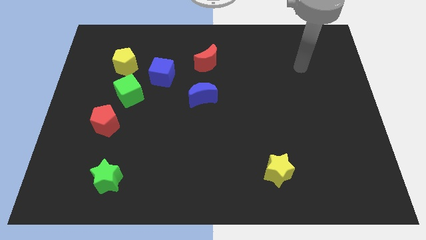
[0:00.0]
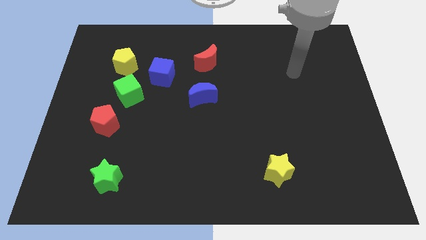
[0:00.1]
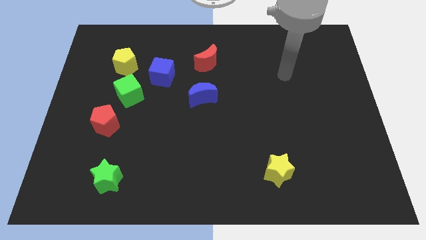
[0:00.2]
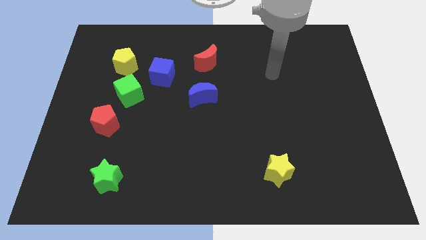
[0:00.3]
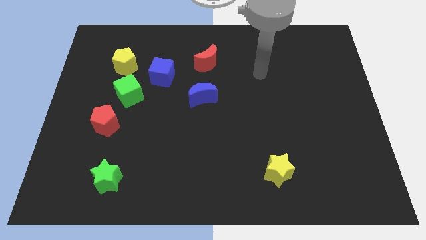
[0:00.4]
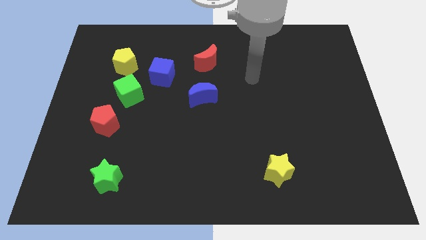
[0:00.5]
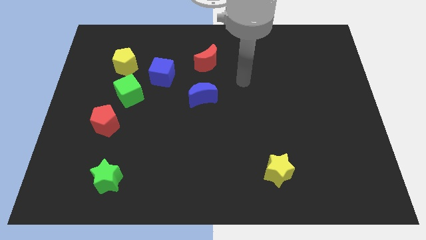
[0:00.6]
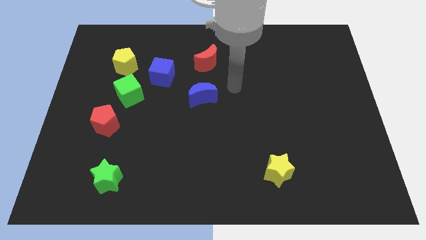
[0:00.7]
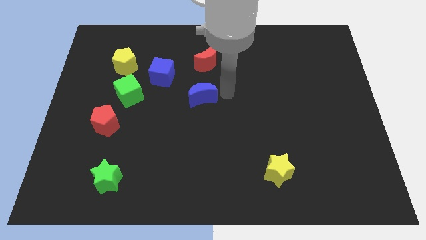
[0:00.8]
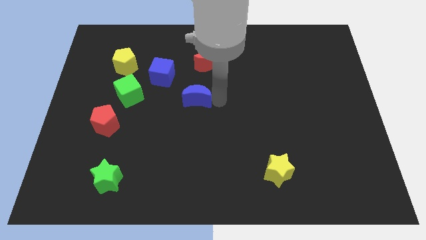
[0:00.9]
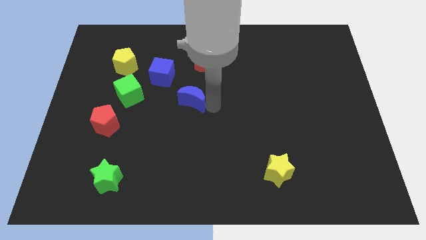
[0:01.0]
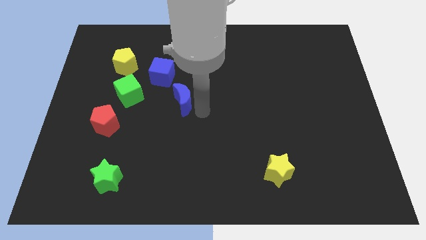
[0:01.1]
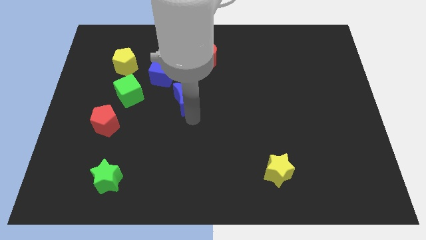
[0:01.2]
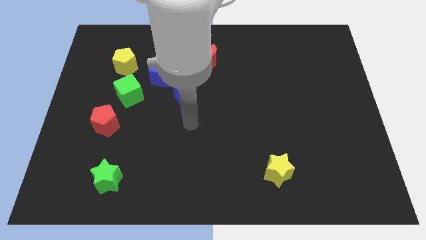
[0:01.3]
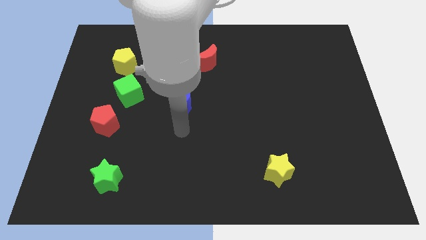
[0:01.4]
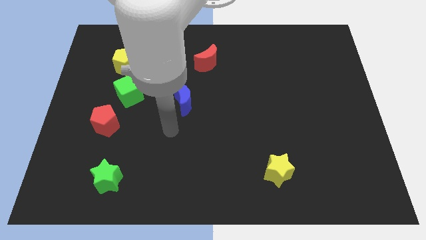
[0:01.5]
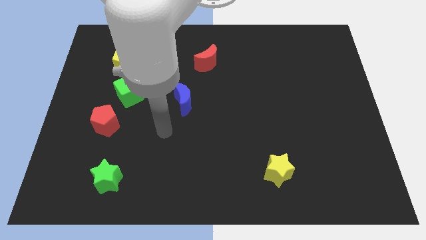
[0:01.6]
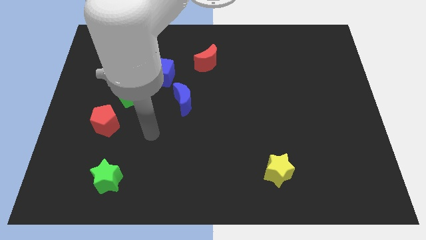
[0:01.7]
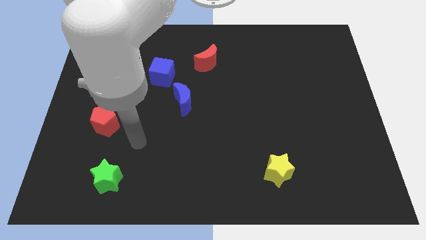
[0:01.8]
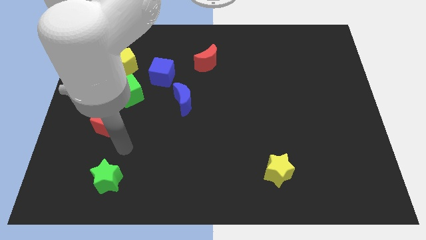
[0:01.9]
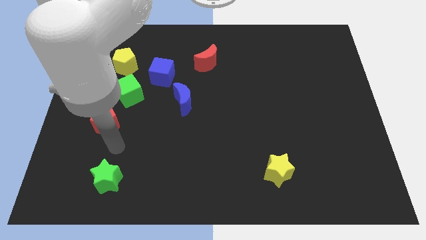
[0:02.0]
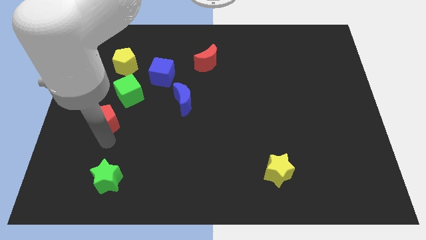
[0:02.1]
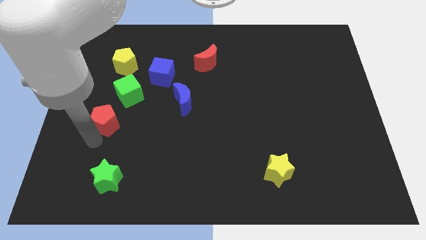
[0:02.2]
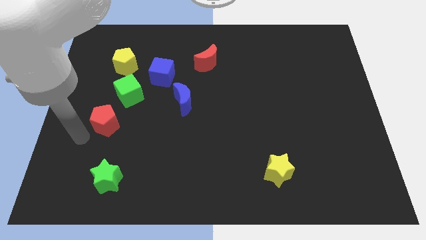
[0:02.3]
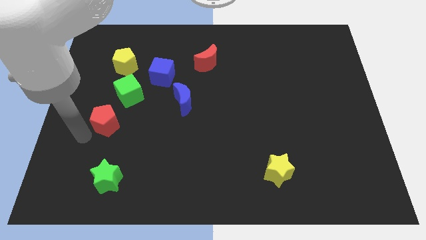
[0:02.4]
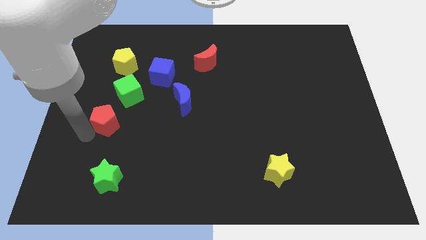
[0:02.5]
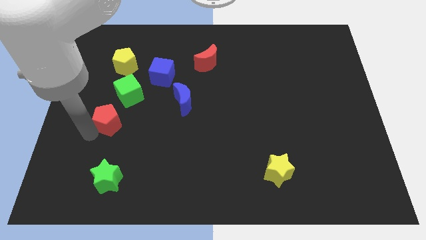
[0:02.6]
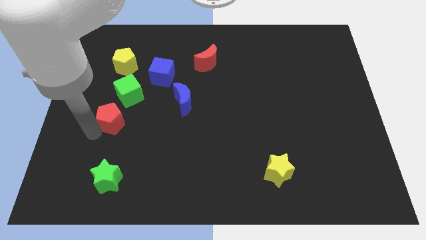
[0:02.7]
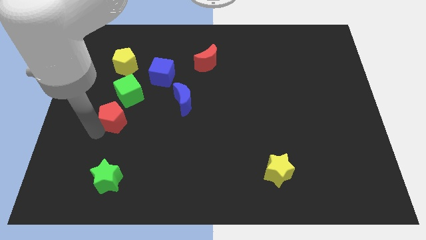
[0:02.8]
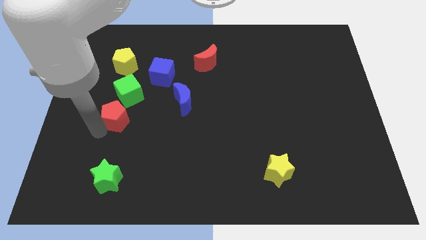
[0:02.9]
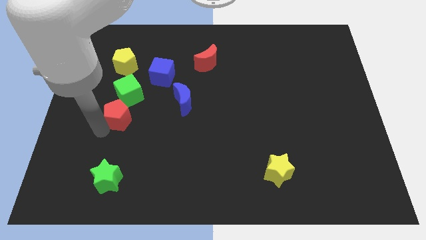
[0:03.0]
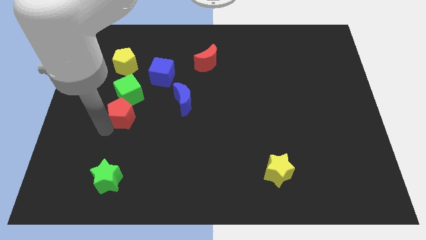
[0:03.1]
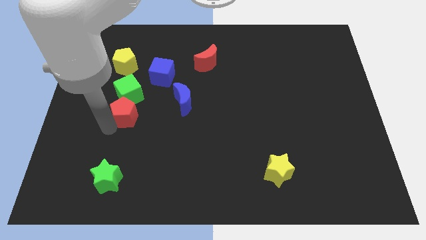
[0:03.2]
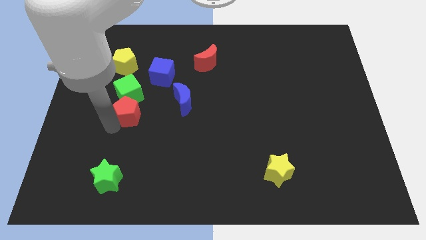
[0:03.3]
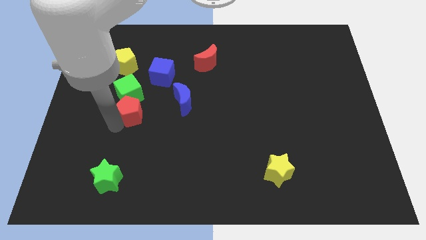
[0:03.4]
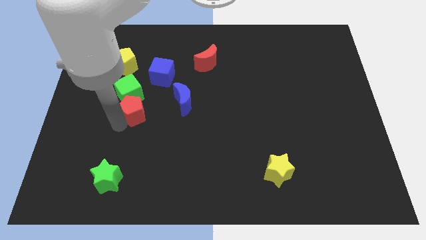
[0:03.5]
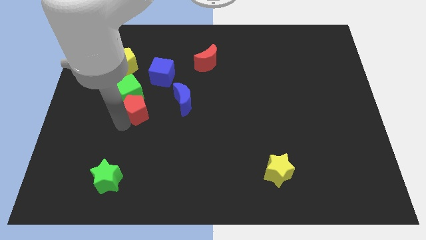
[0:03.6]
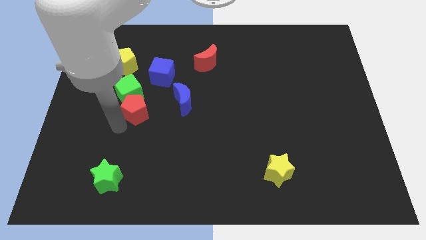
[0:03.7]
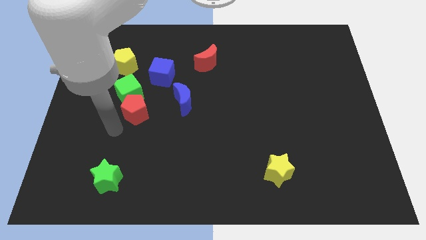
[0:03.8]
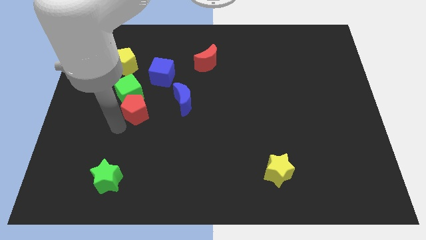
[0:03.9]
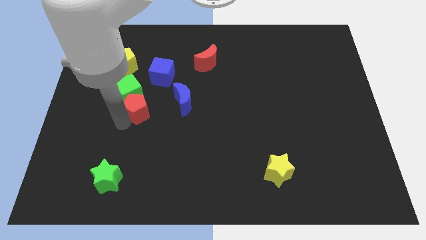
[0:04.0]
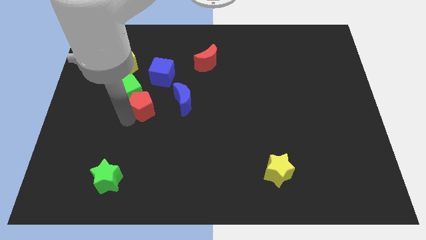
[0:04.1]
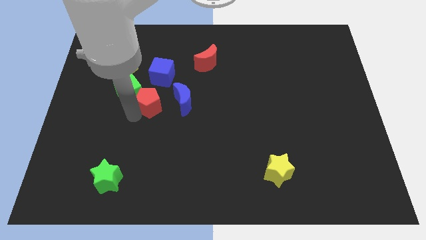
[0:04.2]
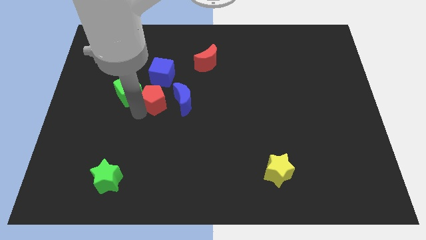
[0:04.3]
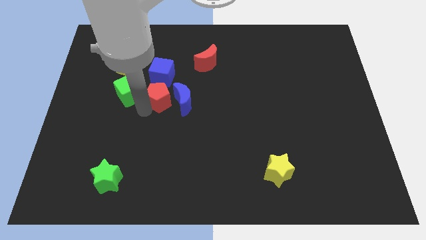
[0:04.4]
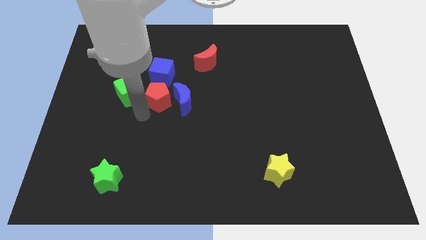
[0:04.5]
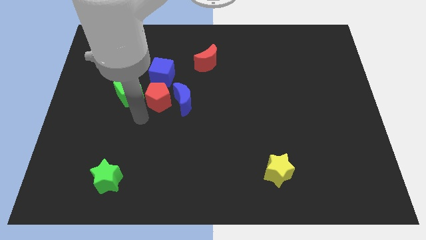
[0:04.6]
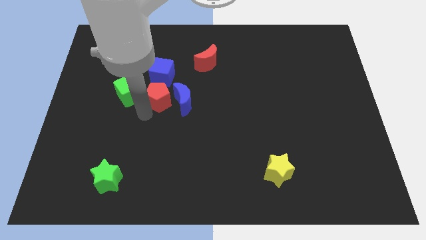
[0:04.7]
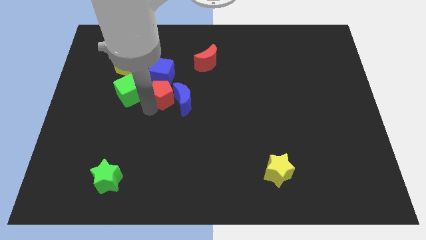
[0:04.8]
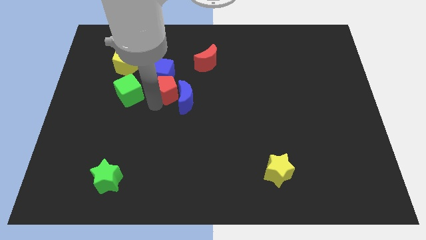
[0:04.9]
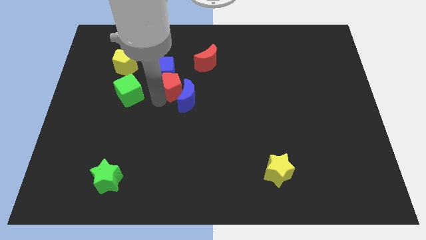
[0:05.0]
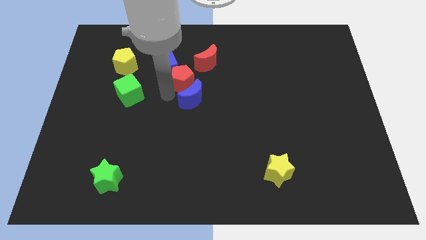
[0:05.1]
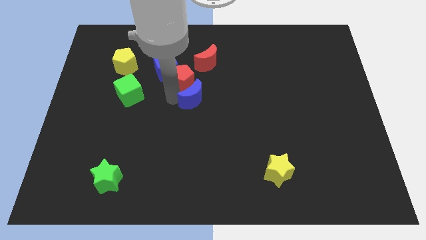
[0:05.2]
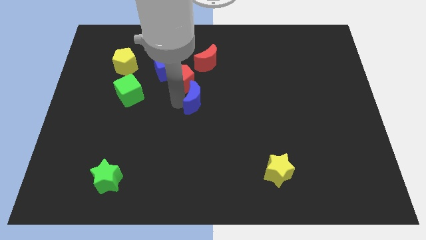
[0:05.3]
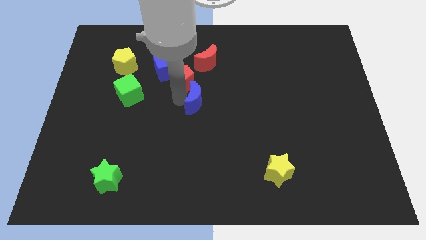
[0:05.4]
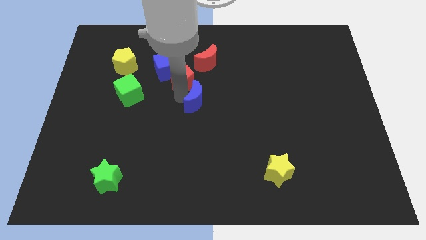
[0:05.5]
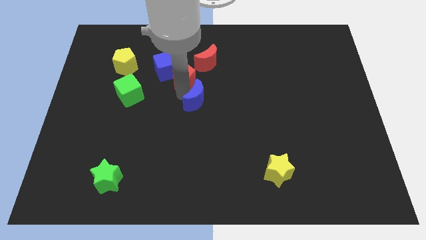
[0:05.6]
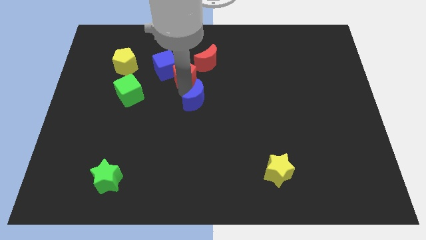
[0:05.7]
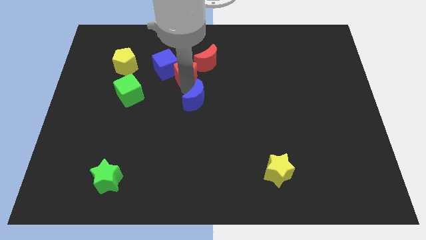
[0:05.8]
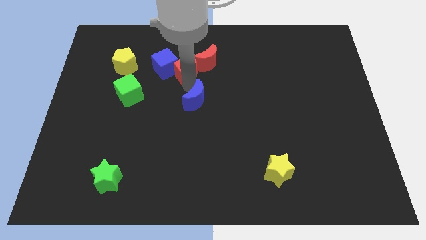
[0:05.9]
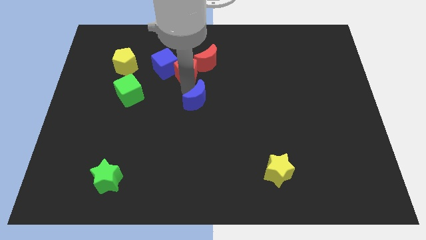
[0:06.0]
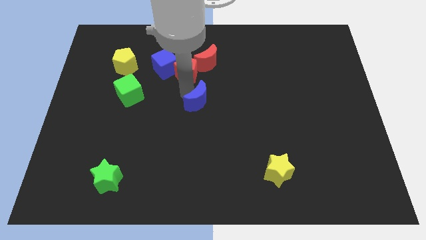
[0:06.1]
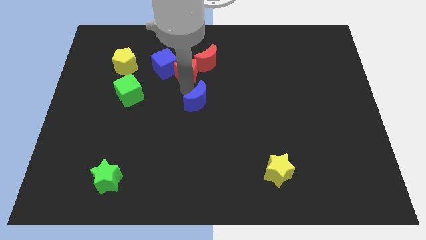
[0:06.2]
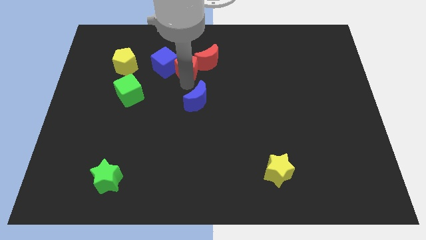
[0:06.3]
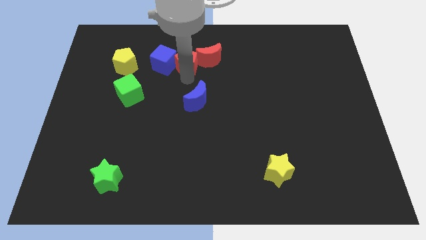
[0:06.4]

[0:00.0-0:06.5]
put the red pentagon to the top right of the blue cube

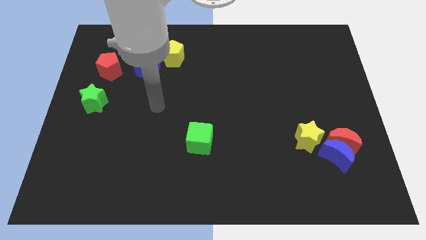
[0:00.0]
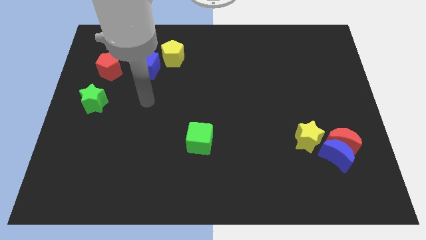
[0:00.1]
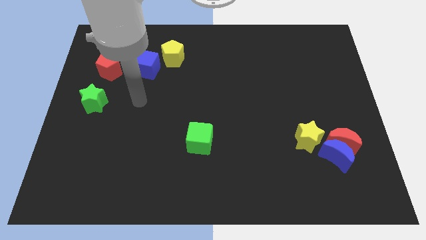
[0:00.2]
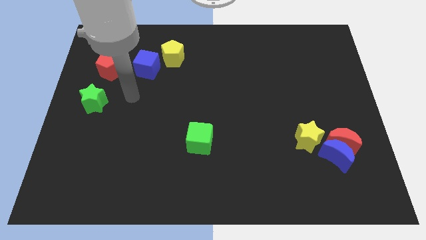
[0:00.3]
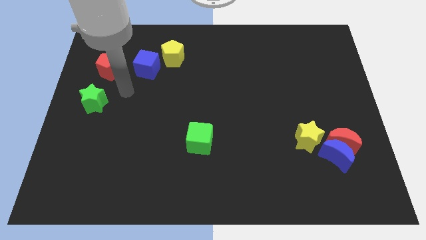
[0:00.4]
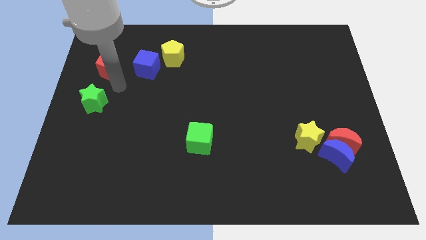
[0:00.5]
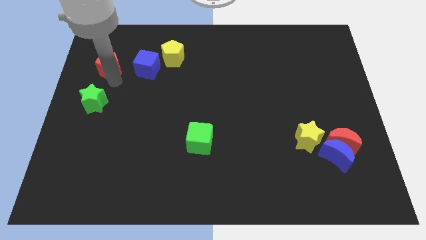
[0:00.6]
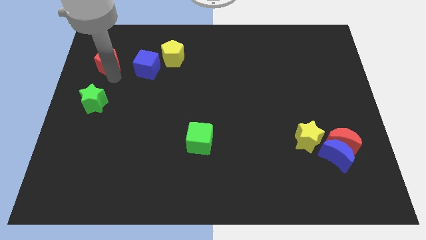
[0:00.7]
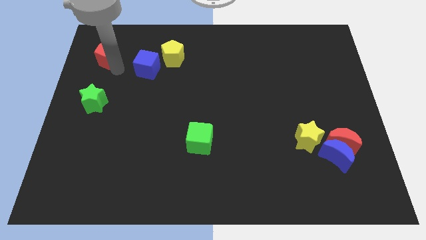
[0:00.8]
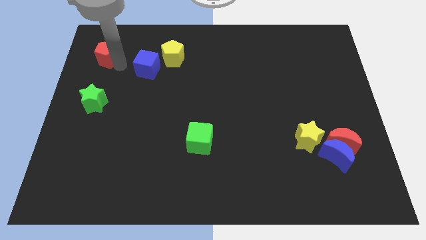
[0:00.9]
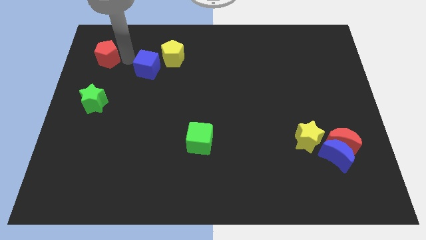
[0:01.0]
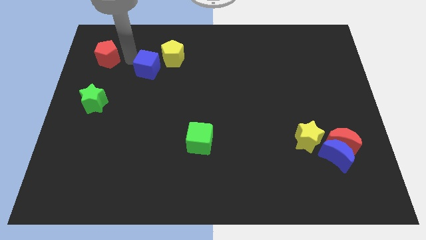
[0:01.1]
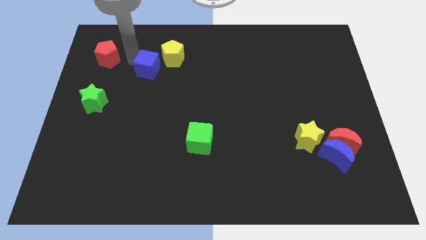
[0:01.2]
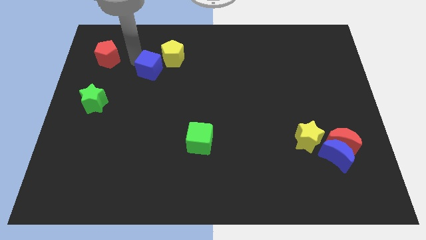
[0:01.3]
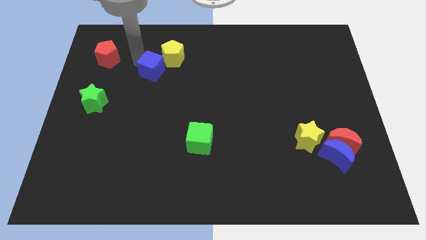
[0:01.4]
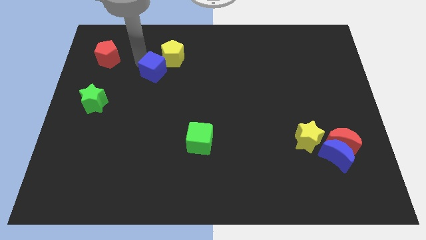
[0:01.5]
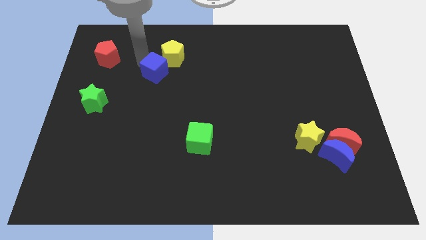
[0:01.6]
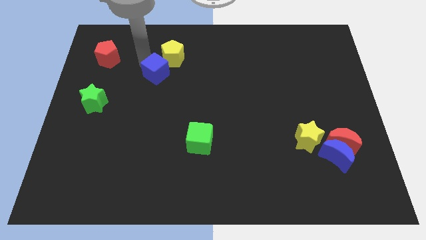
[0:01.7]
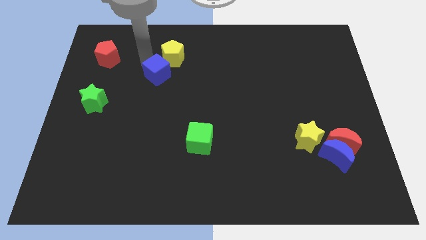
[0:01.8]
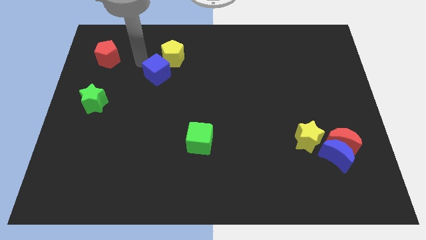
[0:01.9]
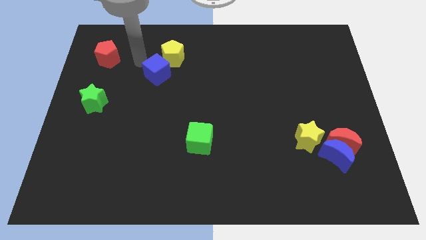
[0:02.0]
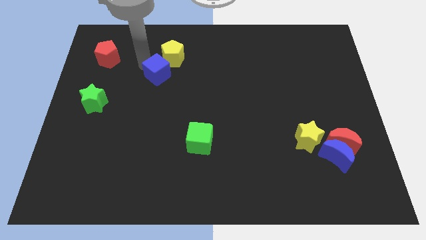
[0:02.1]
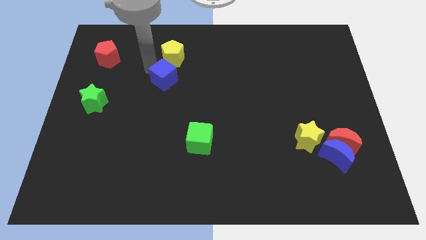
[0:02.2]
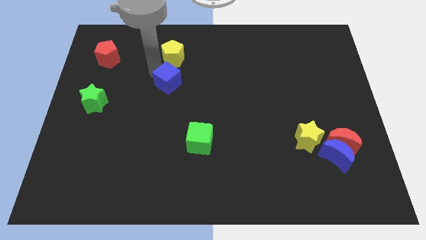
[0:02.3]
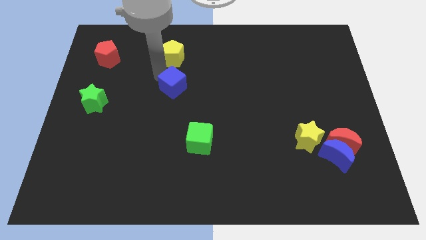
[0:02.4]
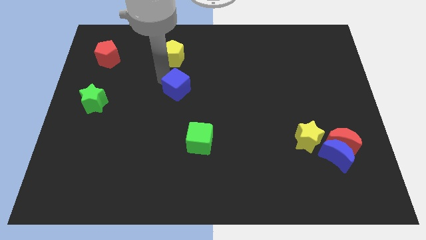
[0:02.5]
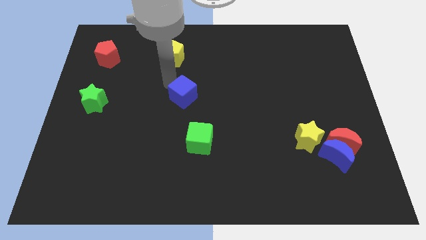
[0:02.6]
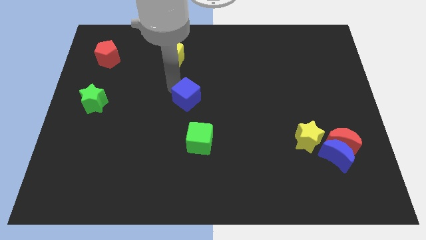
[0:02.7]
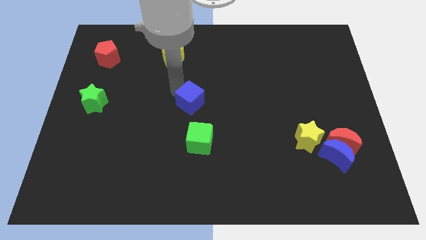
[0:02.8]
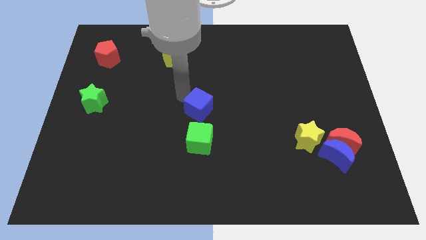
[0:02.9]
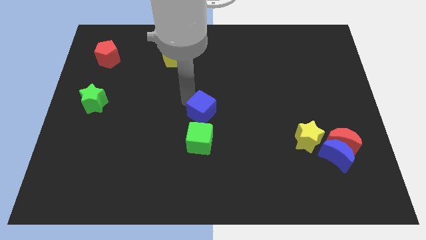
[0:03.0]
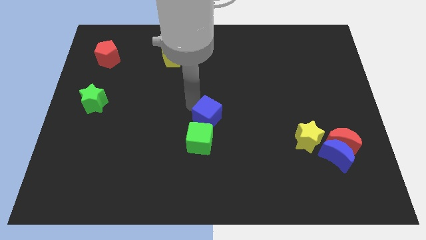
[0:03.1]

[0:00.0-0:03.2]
move the blue cube to the top right of the green cube
